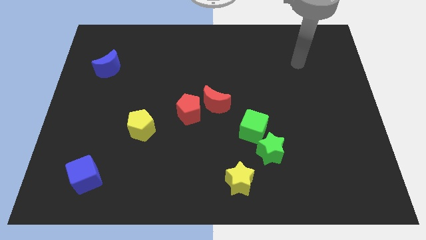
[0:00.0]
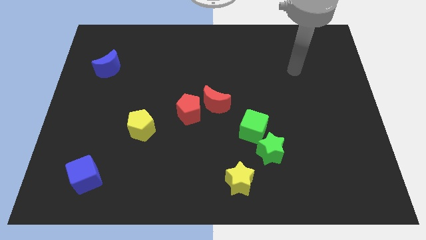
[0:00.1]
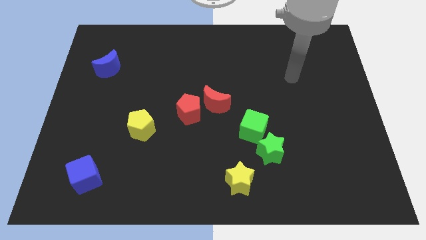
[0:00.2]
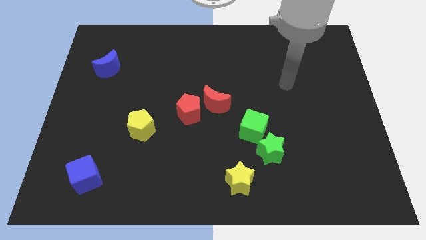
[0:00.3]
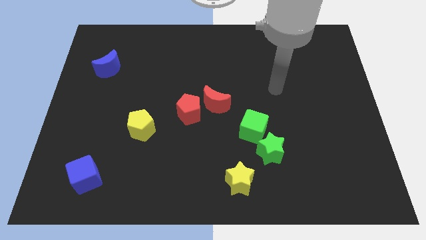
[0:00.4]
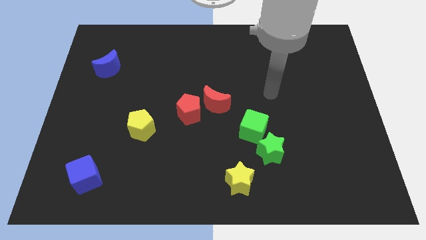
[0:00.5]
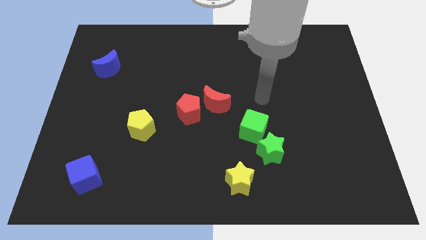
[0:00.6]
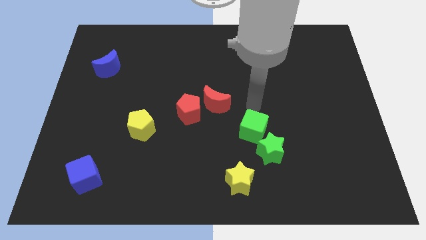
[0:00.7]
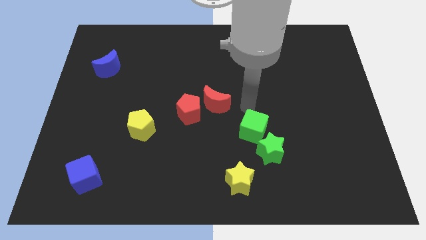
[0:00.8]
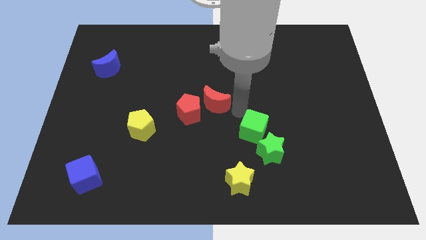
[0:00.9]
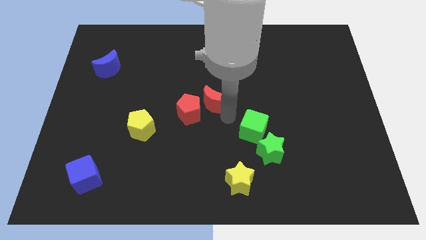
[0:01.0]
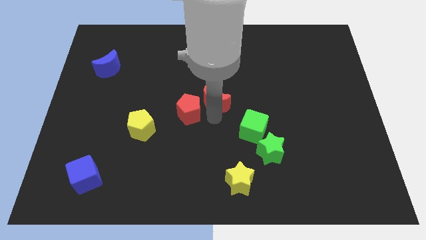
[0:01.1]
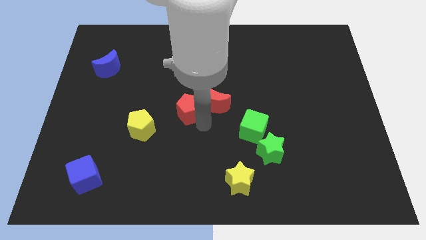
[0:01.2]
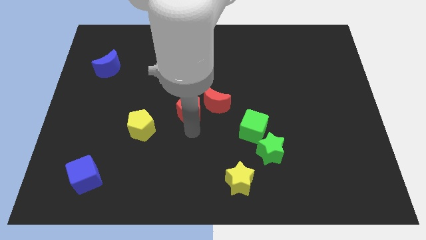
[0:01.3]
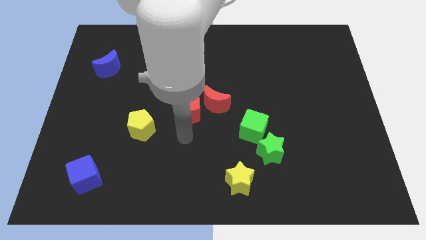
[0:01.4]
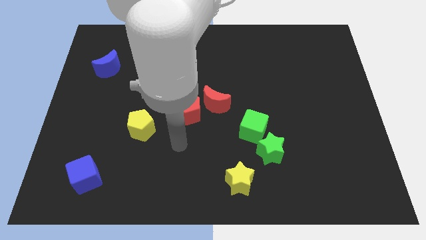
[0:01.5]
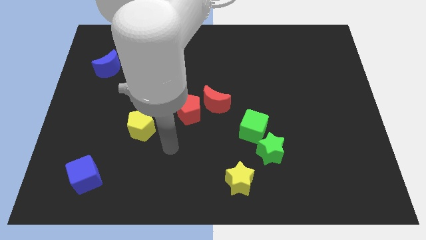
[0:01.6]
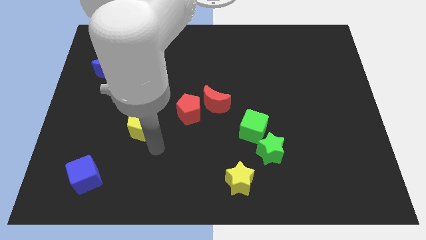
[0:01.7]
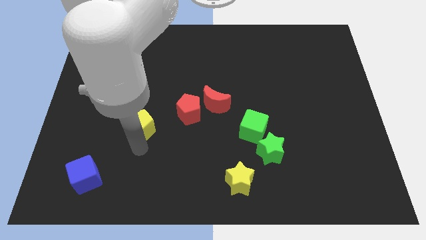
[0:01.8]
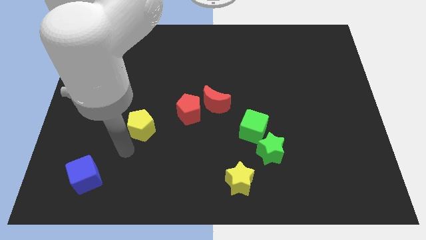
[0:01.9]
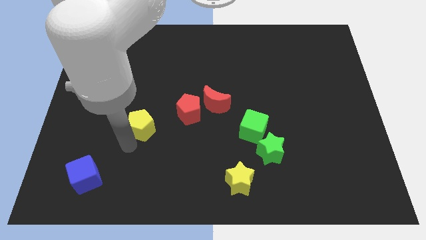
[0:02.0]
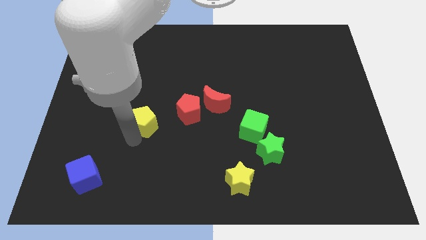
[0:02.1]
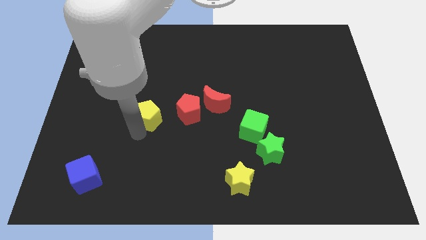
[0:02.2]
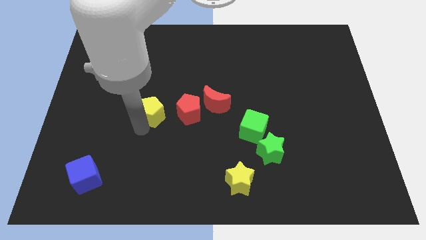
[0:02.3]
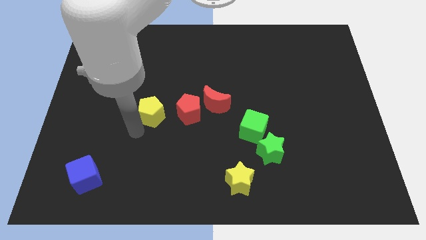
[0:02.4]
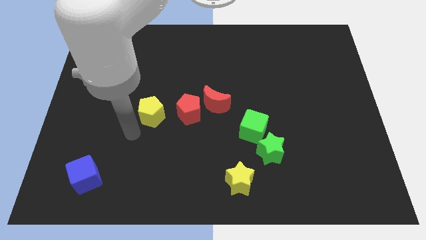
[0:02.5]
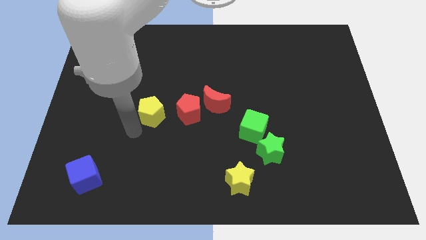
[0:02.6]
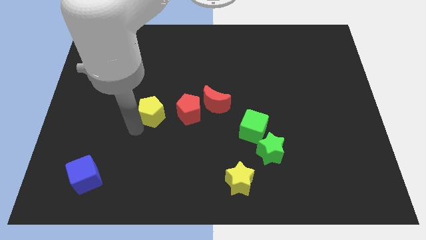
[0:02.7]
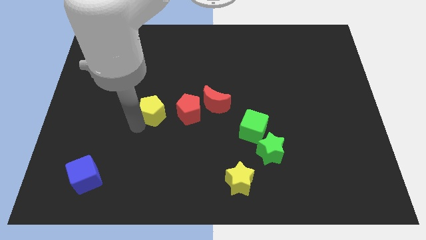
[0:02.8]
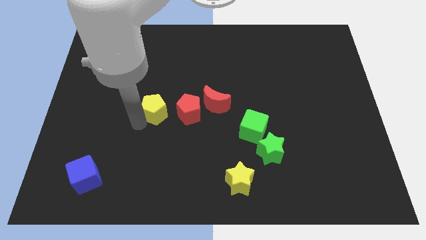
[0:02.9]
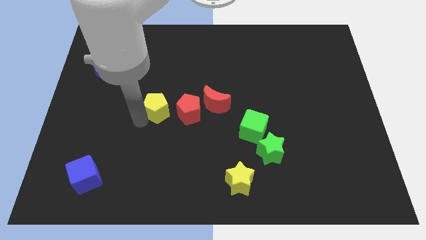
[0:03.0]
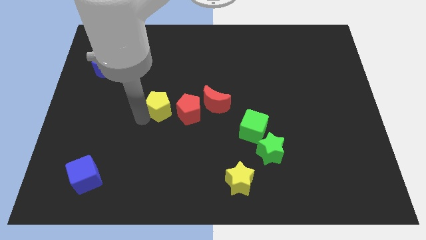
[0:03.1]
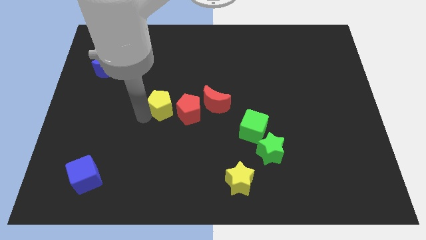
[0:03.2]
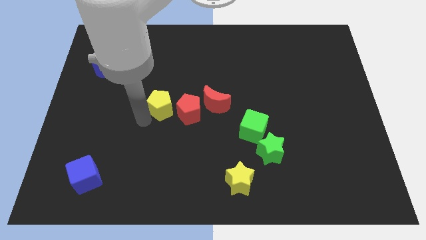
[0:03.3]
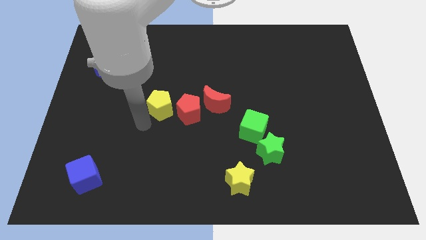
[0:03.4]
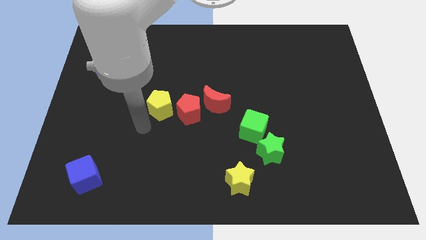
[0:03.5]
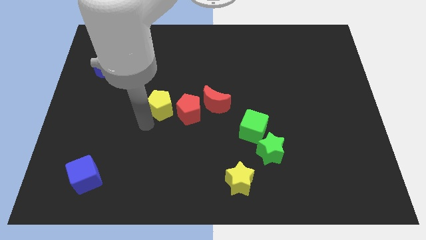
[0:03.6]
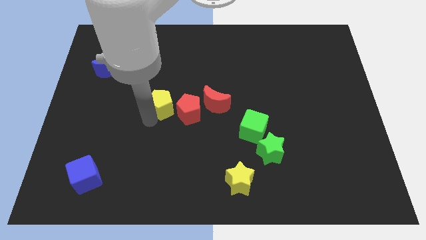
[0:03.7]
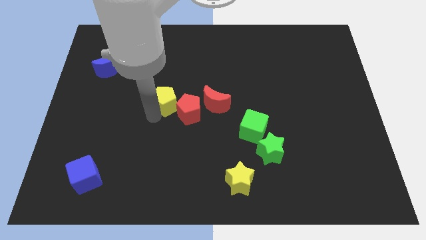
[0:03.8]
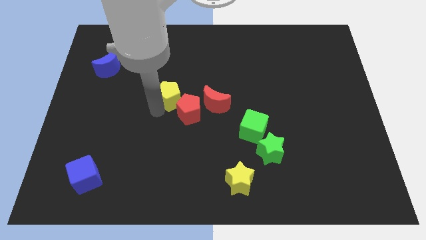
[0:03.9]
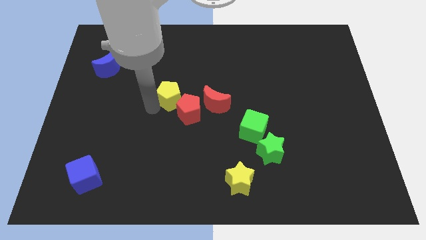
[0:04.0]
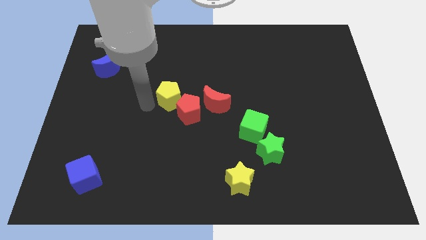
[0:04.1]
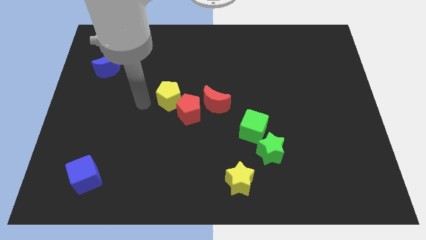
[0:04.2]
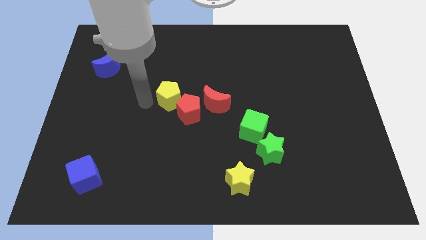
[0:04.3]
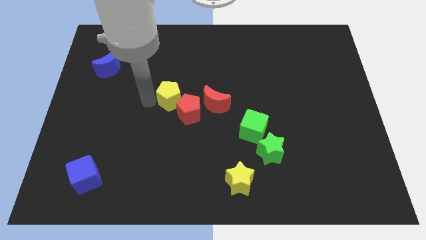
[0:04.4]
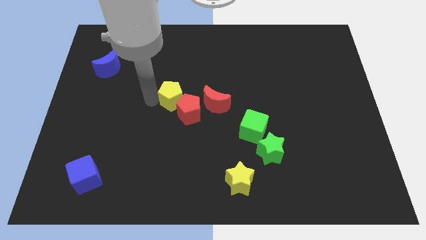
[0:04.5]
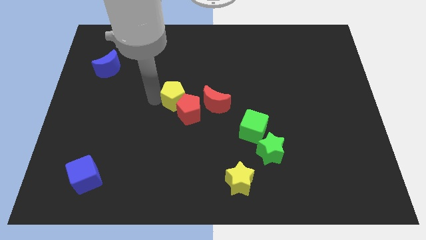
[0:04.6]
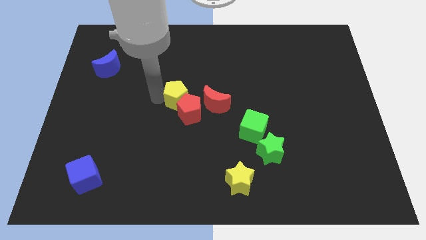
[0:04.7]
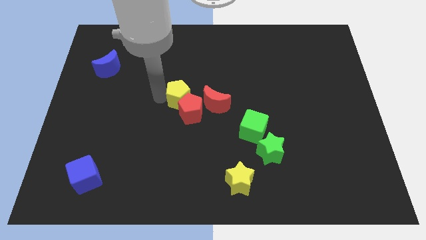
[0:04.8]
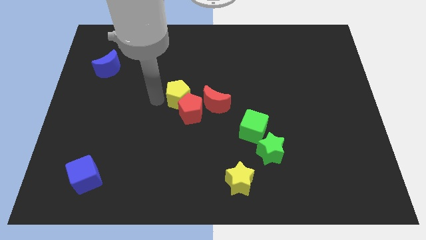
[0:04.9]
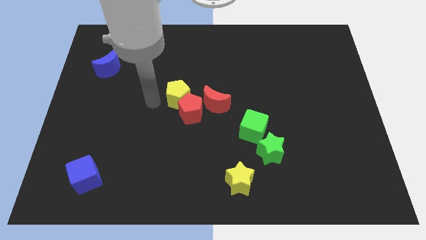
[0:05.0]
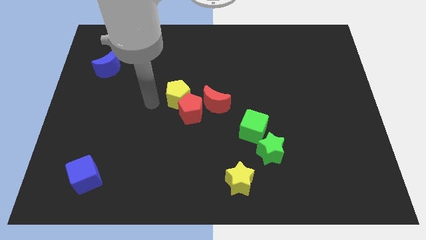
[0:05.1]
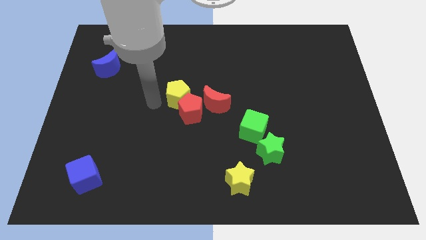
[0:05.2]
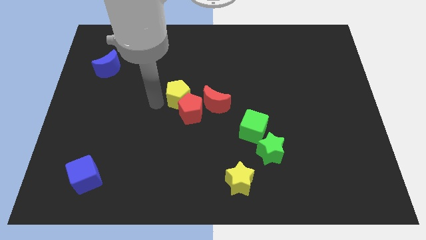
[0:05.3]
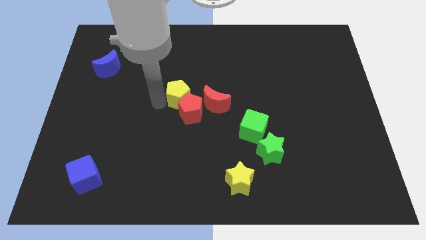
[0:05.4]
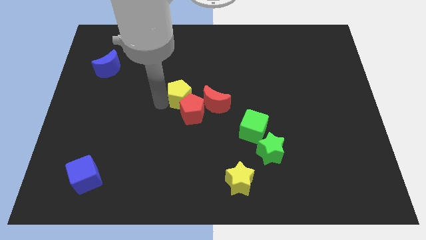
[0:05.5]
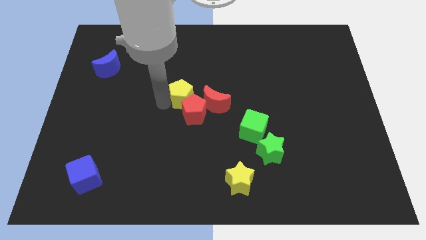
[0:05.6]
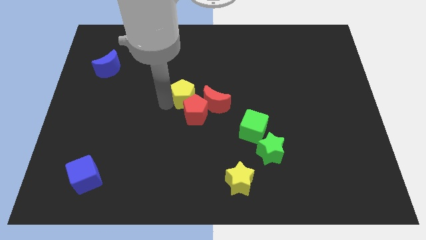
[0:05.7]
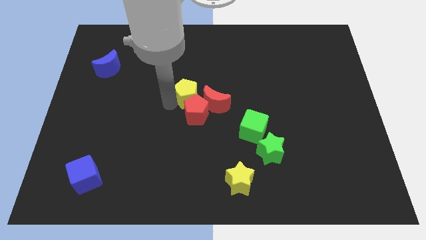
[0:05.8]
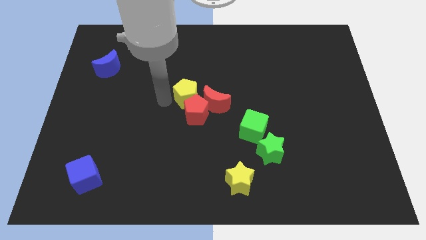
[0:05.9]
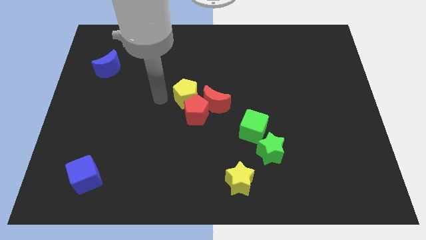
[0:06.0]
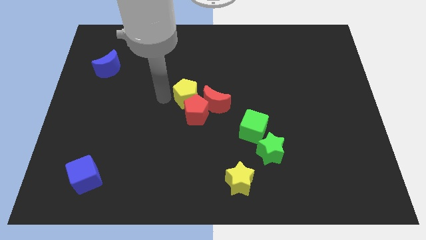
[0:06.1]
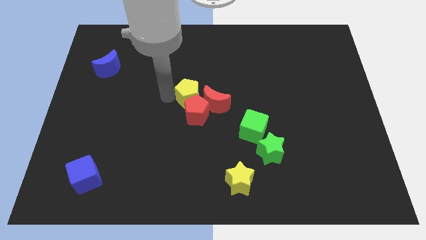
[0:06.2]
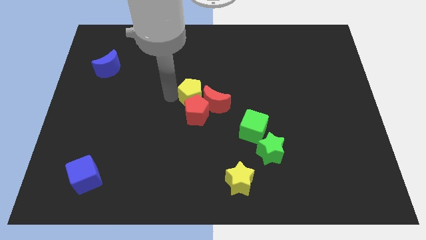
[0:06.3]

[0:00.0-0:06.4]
move the yellow pentagon to the top right of the red pentagon

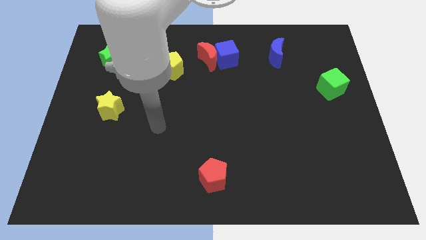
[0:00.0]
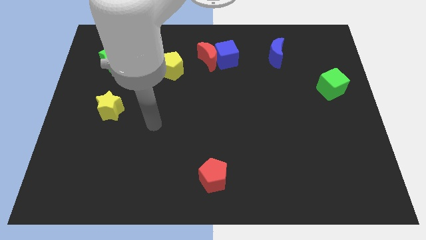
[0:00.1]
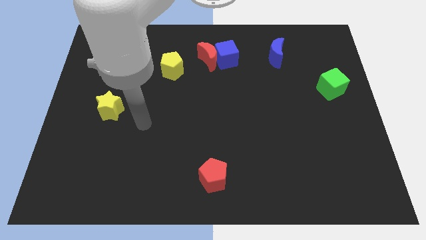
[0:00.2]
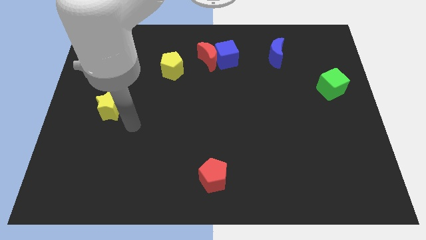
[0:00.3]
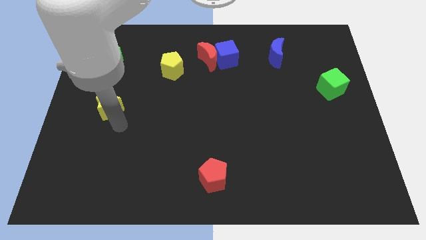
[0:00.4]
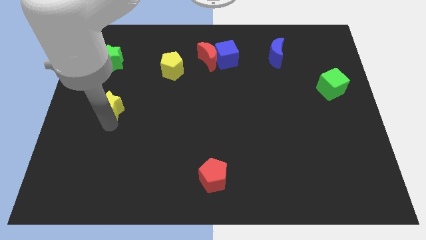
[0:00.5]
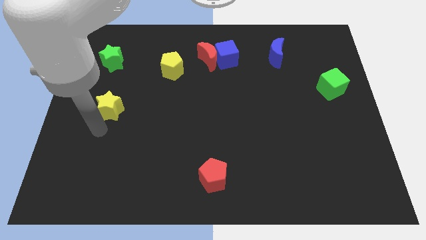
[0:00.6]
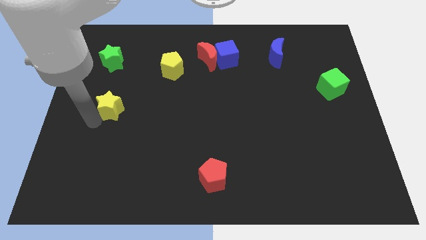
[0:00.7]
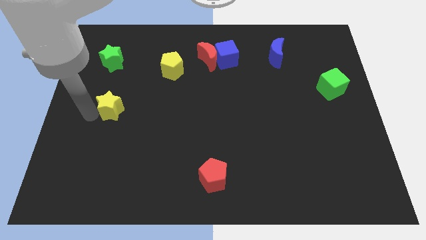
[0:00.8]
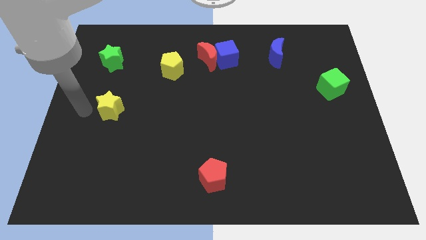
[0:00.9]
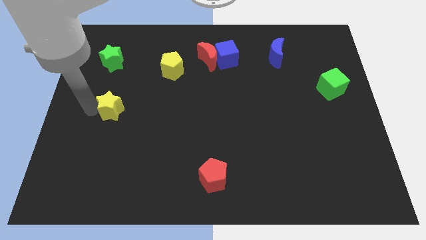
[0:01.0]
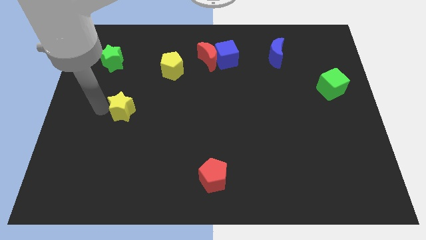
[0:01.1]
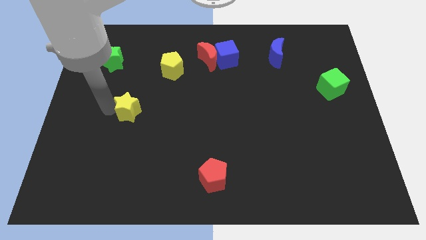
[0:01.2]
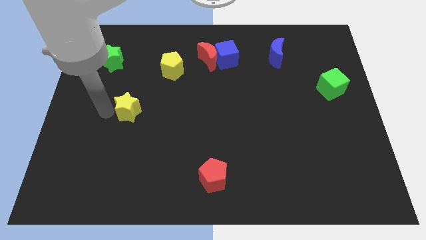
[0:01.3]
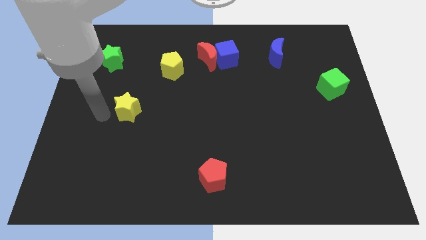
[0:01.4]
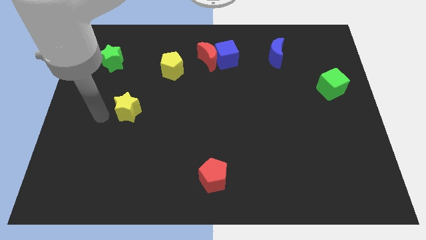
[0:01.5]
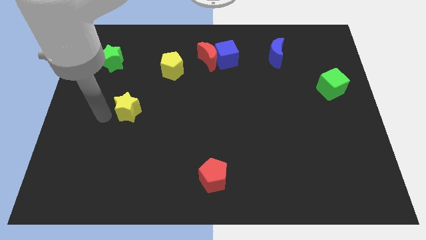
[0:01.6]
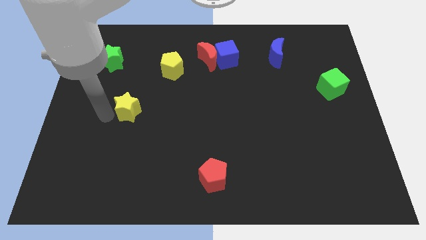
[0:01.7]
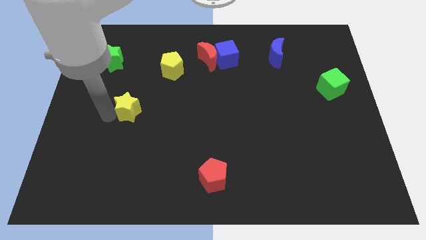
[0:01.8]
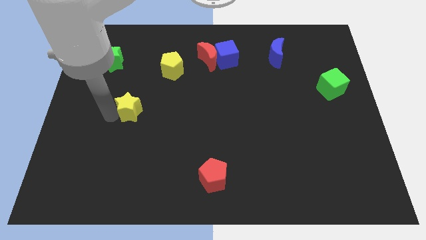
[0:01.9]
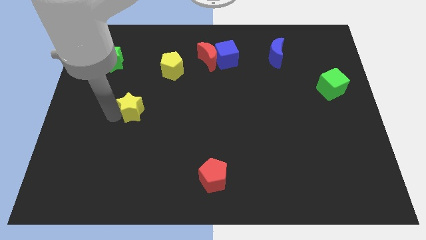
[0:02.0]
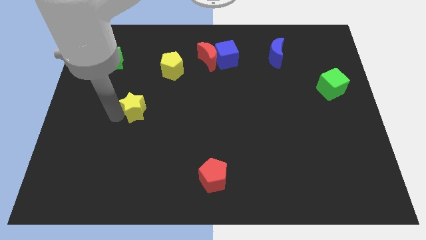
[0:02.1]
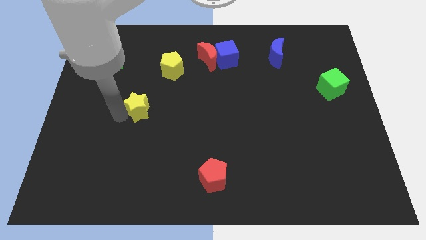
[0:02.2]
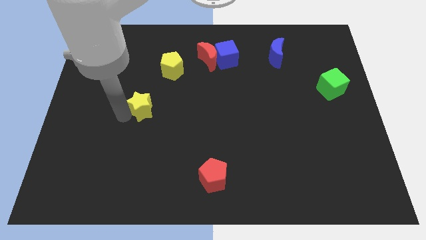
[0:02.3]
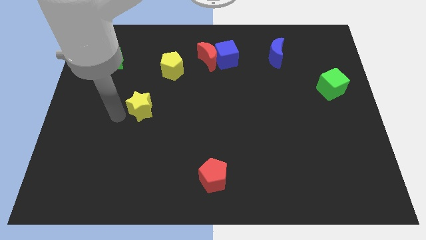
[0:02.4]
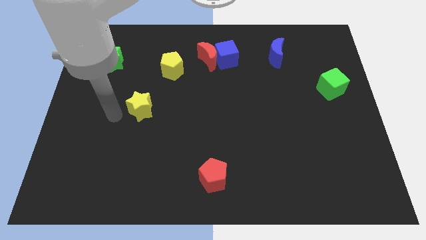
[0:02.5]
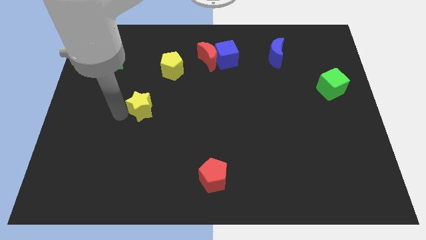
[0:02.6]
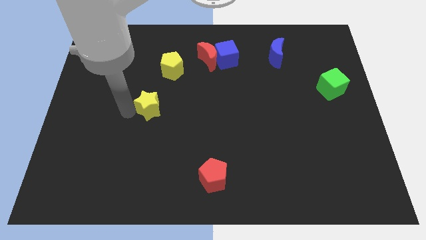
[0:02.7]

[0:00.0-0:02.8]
slide the yellow star below the yellow pentagon
